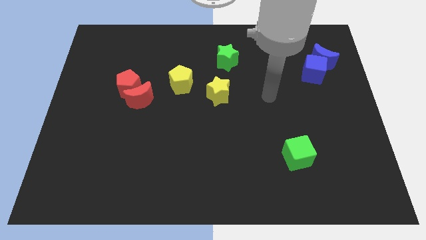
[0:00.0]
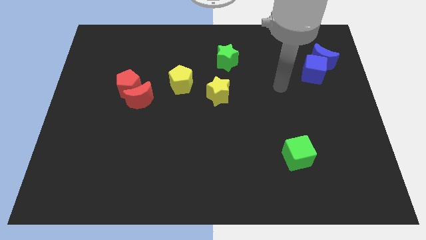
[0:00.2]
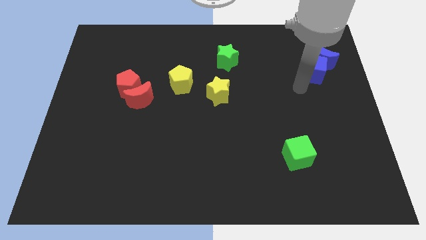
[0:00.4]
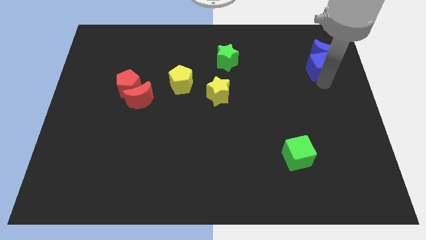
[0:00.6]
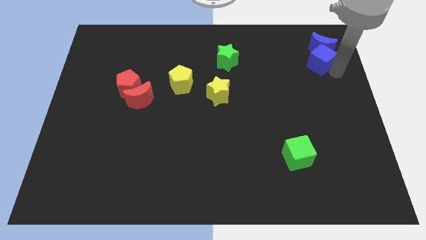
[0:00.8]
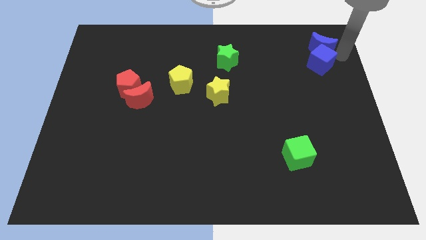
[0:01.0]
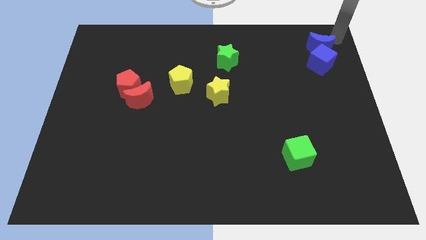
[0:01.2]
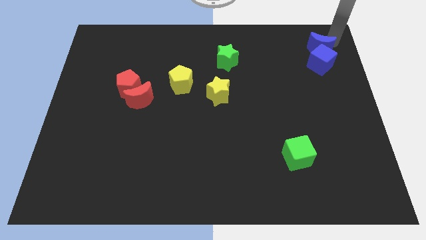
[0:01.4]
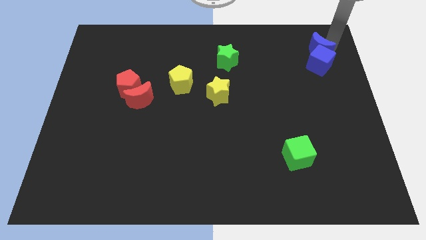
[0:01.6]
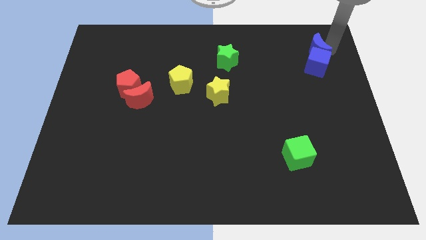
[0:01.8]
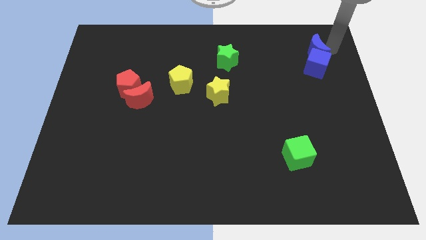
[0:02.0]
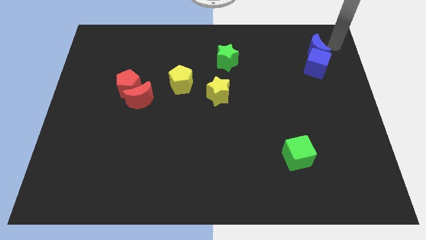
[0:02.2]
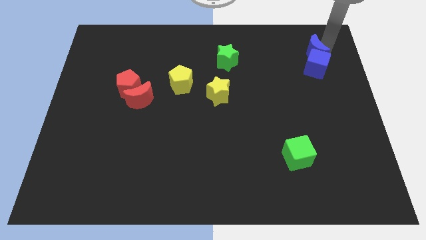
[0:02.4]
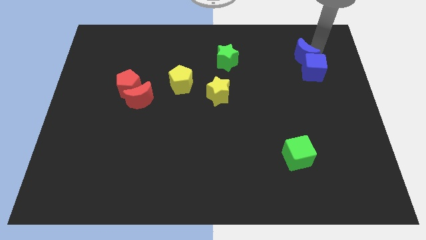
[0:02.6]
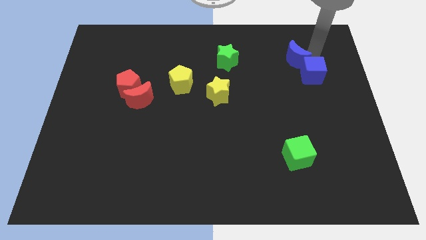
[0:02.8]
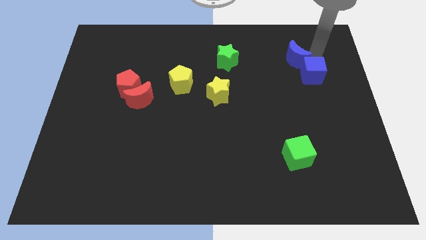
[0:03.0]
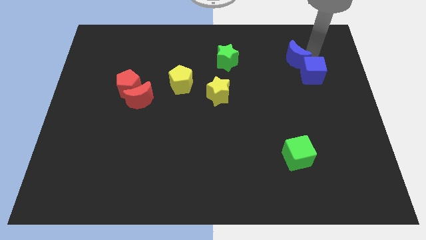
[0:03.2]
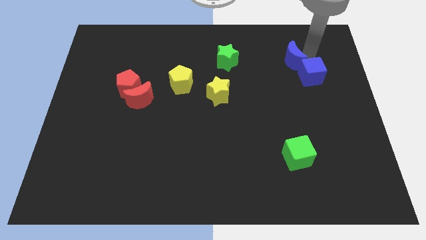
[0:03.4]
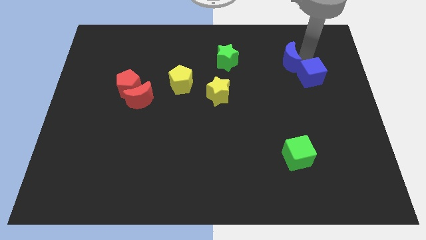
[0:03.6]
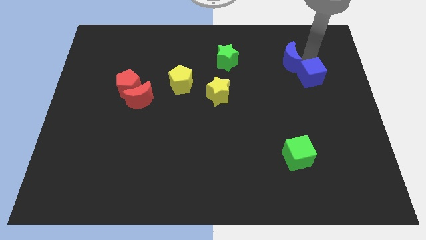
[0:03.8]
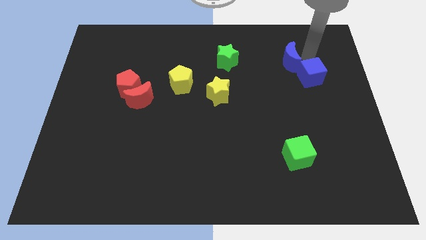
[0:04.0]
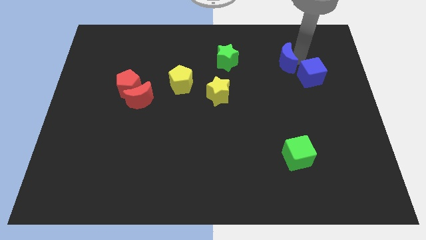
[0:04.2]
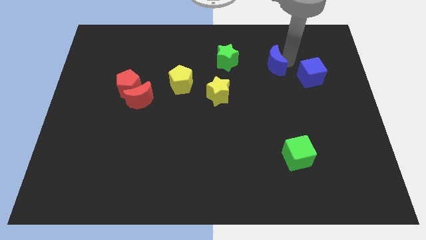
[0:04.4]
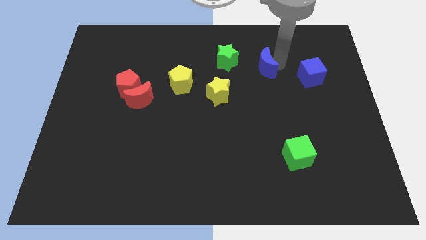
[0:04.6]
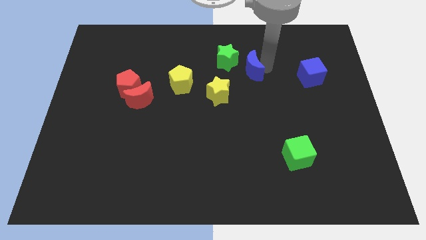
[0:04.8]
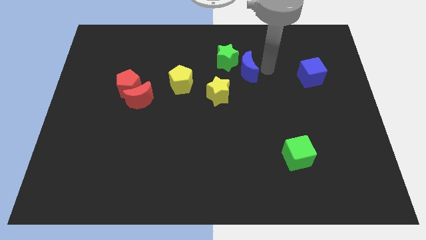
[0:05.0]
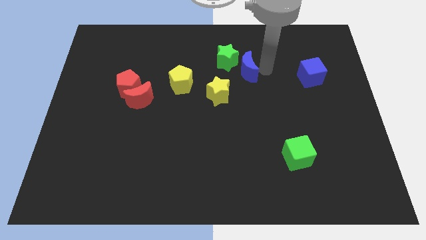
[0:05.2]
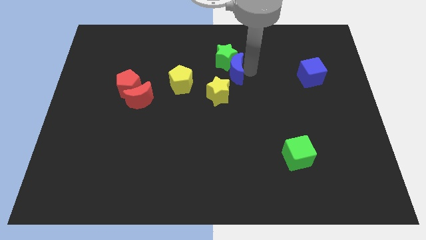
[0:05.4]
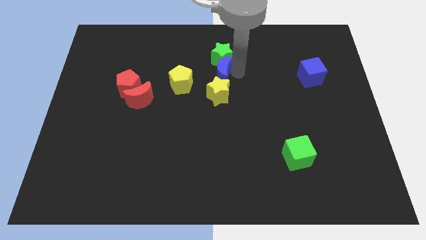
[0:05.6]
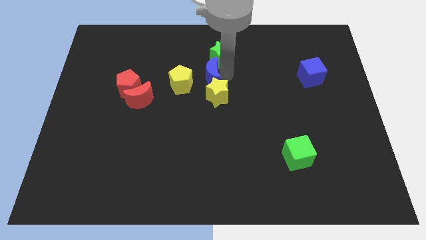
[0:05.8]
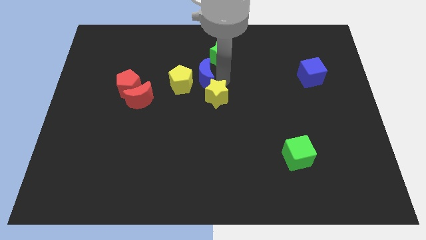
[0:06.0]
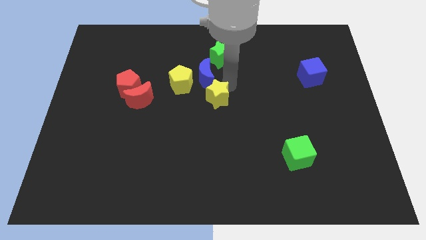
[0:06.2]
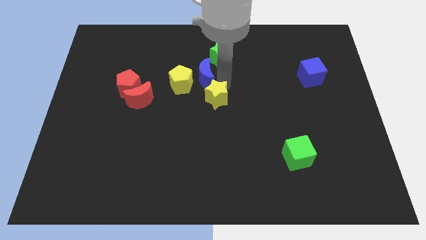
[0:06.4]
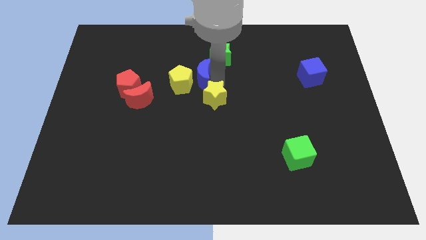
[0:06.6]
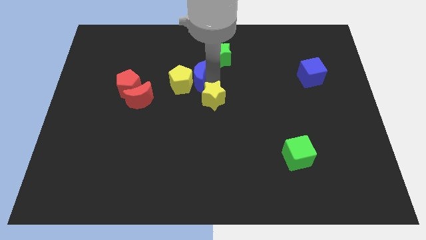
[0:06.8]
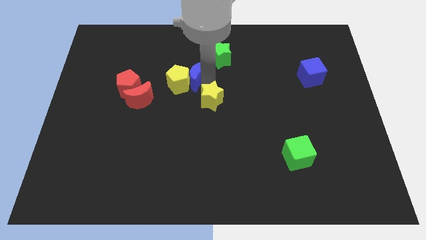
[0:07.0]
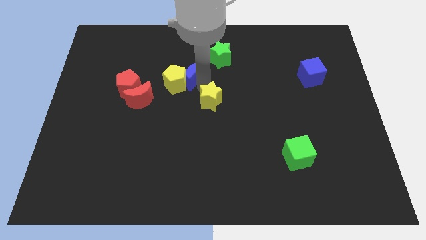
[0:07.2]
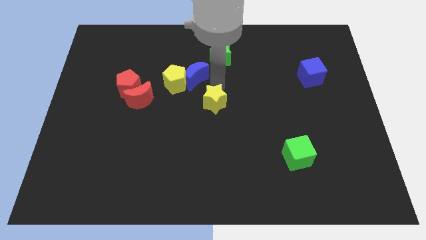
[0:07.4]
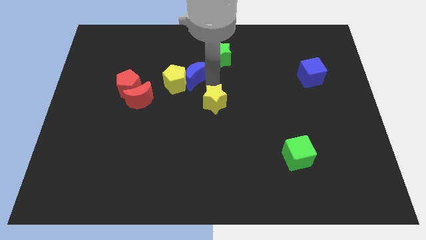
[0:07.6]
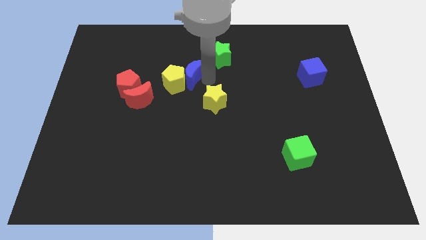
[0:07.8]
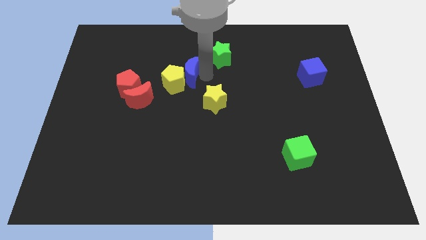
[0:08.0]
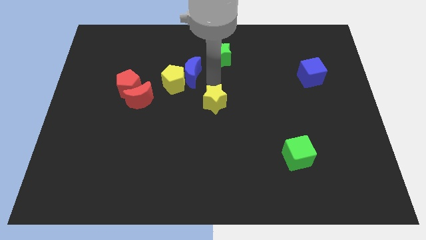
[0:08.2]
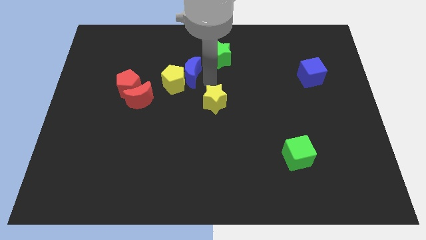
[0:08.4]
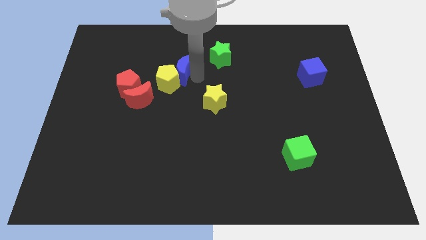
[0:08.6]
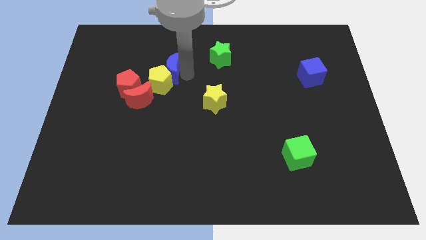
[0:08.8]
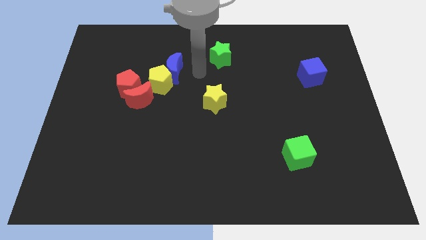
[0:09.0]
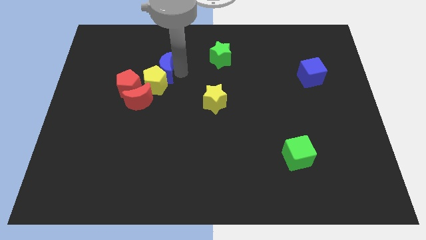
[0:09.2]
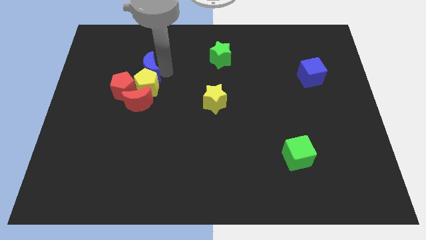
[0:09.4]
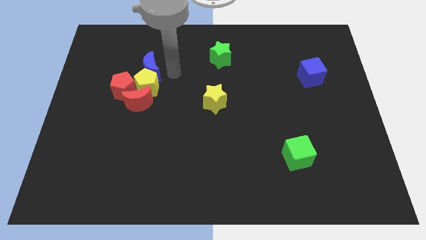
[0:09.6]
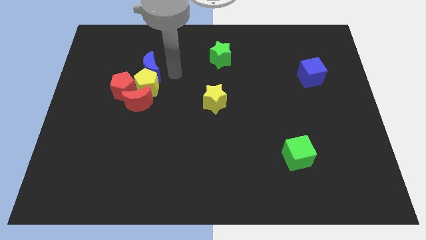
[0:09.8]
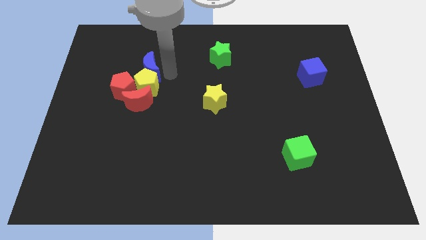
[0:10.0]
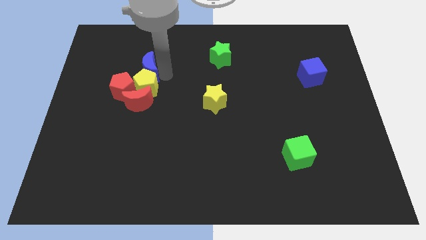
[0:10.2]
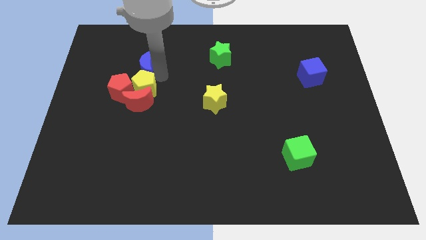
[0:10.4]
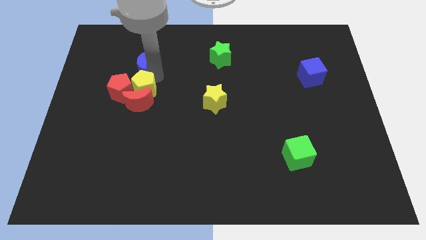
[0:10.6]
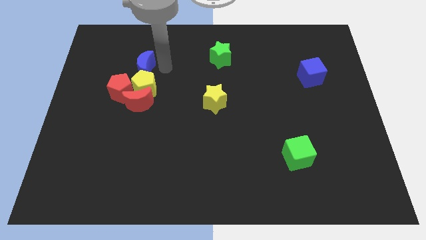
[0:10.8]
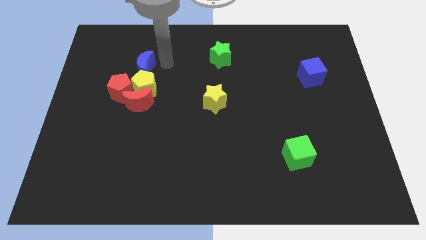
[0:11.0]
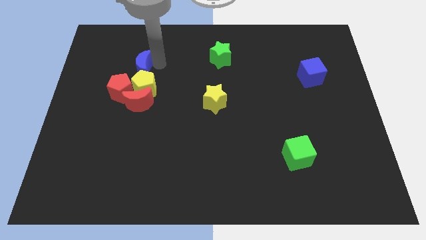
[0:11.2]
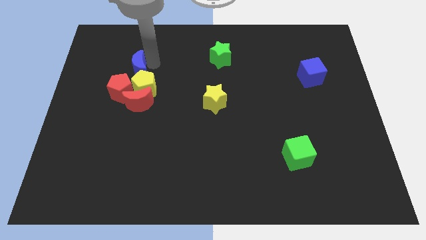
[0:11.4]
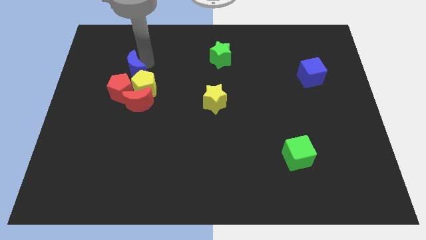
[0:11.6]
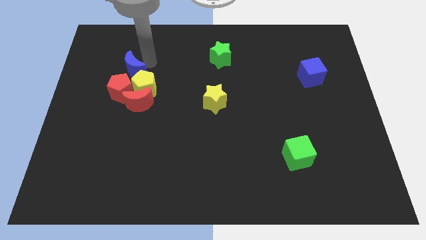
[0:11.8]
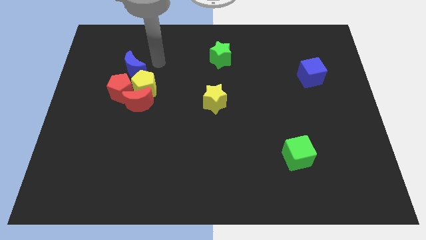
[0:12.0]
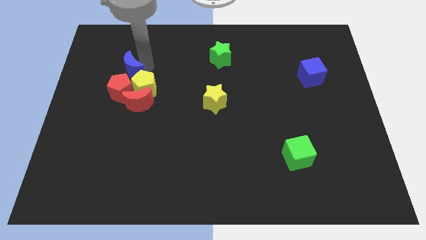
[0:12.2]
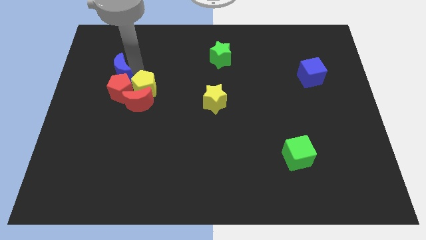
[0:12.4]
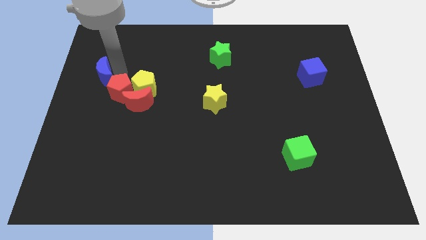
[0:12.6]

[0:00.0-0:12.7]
move the blue moon to the left side of the board
